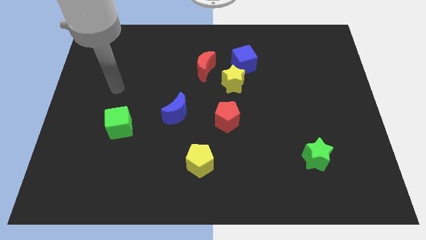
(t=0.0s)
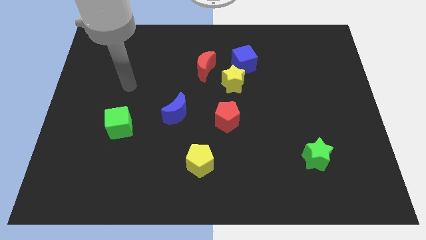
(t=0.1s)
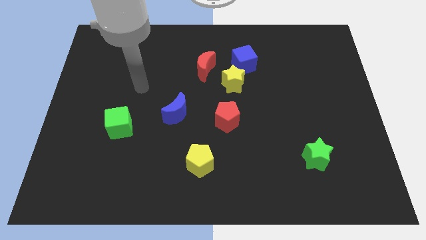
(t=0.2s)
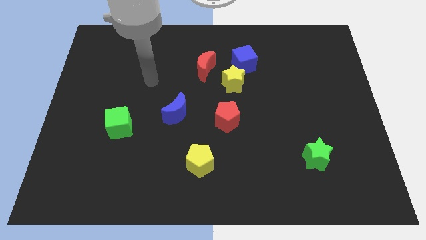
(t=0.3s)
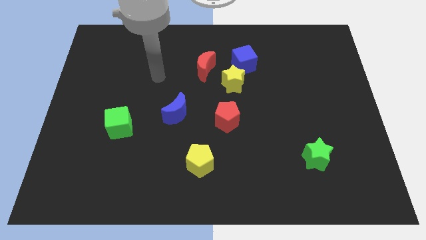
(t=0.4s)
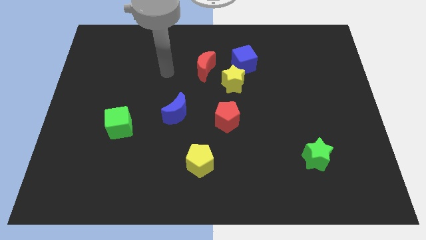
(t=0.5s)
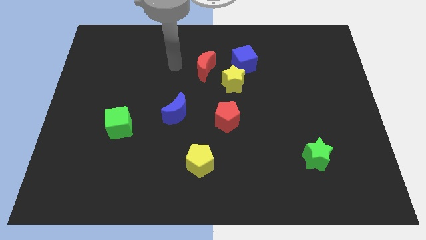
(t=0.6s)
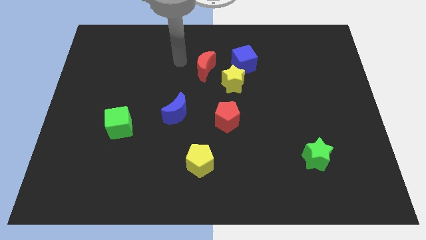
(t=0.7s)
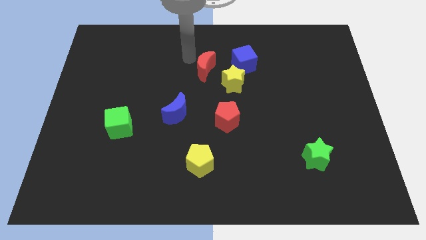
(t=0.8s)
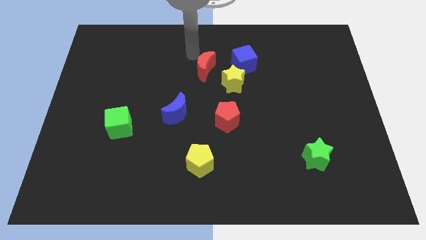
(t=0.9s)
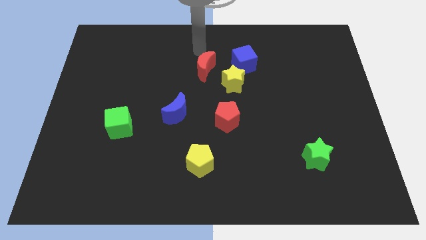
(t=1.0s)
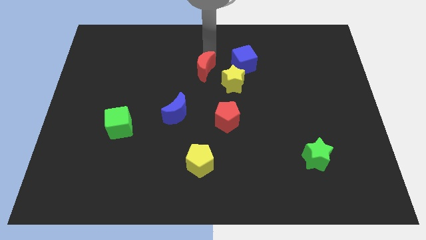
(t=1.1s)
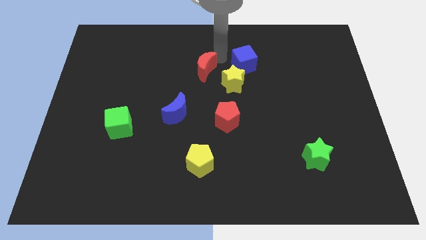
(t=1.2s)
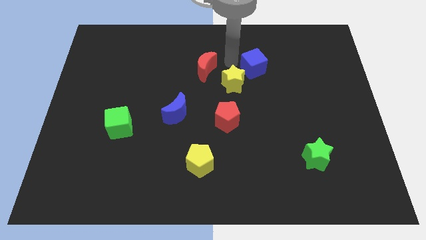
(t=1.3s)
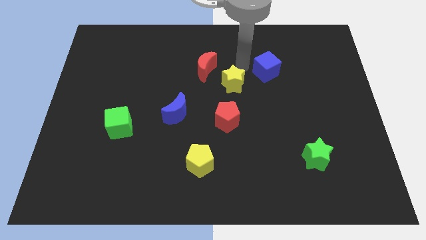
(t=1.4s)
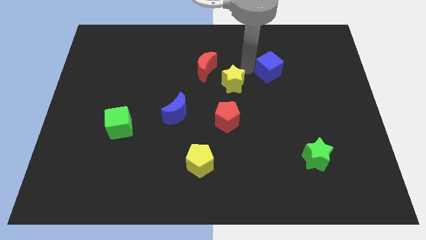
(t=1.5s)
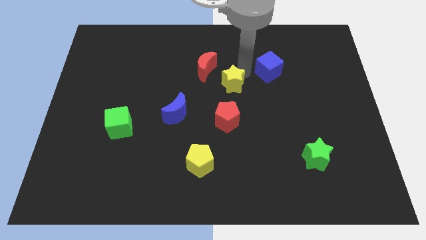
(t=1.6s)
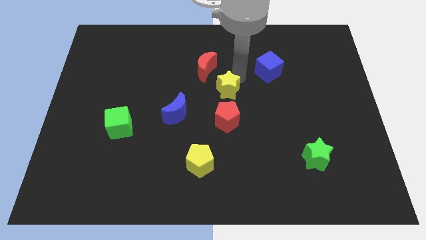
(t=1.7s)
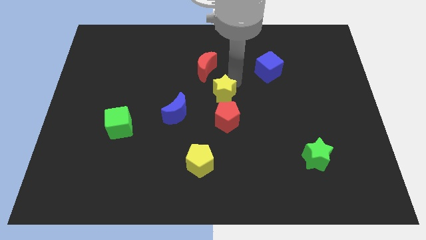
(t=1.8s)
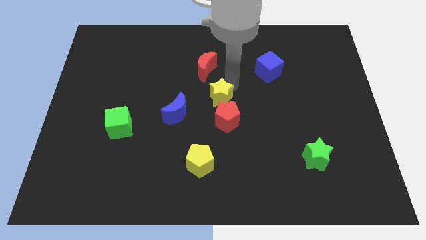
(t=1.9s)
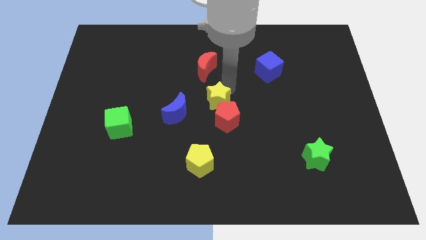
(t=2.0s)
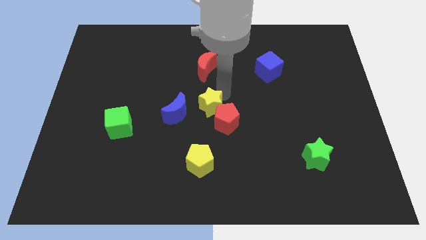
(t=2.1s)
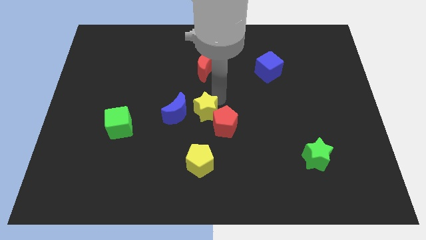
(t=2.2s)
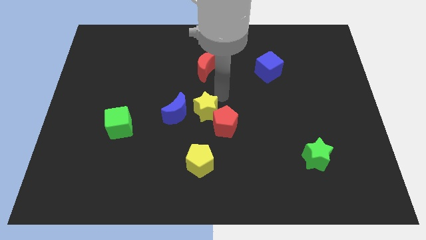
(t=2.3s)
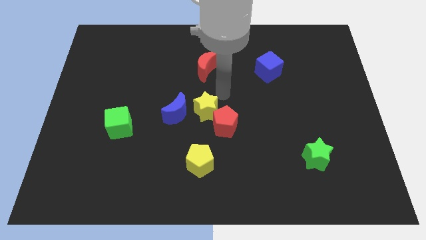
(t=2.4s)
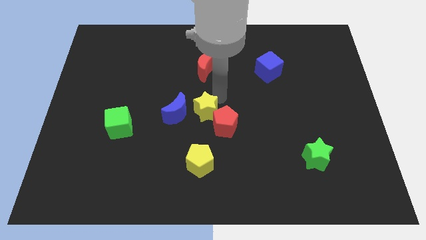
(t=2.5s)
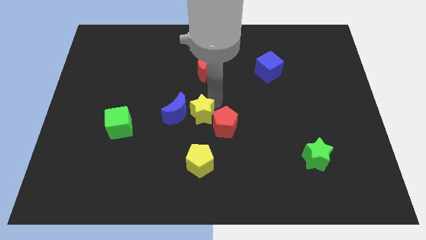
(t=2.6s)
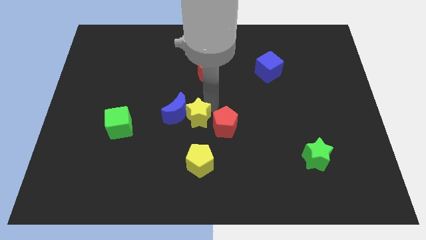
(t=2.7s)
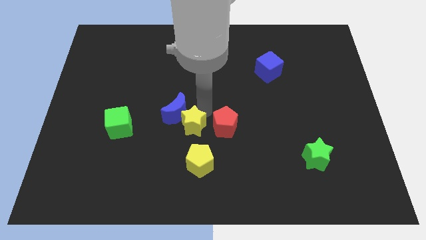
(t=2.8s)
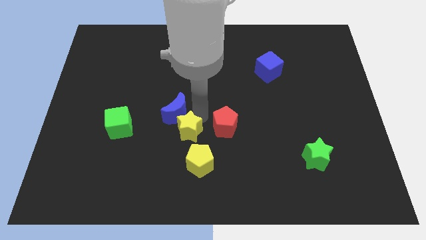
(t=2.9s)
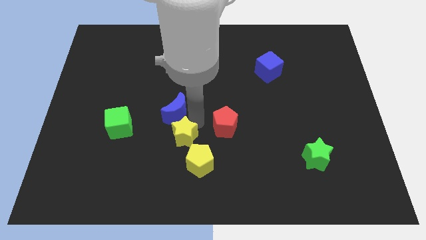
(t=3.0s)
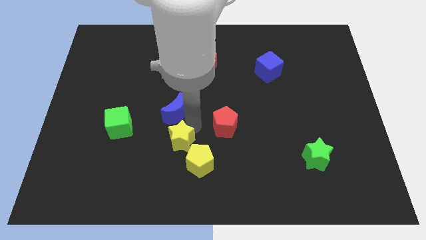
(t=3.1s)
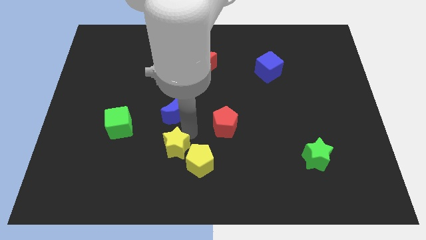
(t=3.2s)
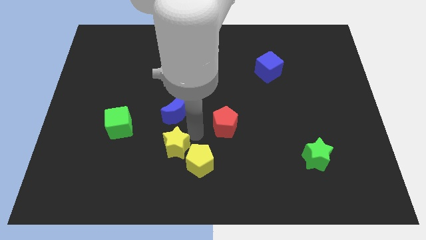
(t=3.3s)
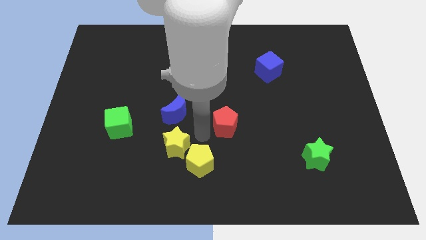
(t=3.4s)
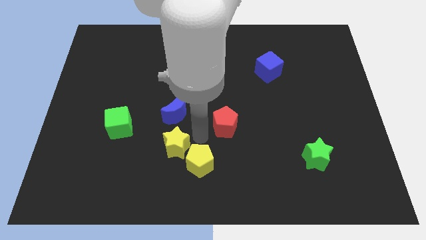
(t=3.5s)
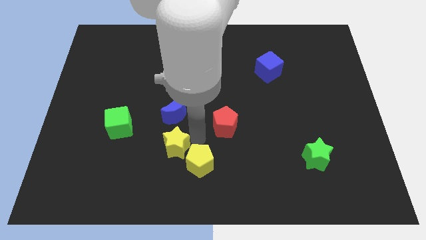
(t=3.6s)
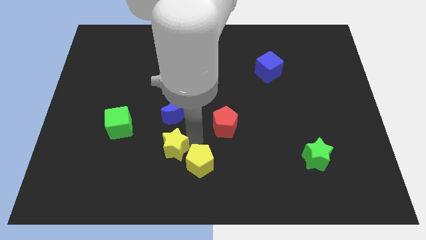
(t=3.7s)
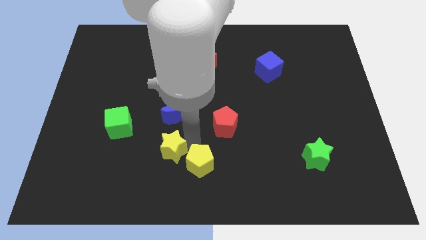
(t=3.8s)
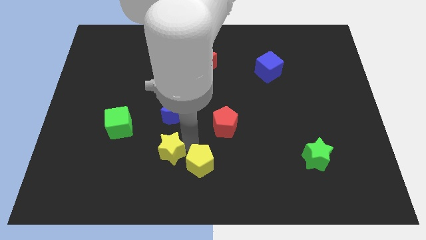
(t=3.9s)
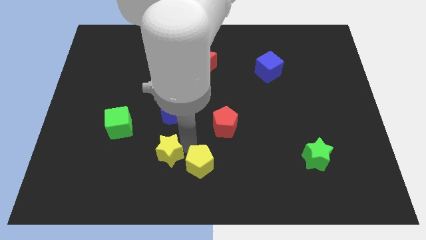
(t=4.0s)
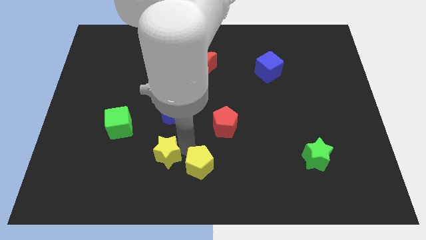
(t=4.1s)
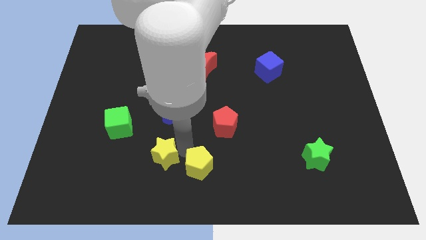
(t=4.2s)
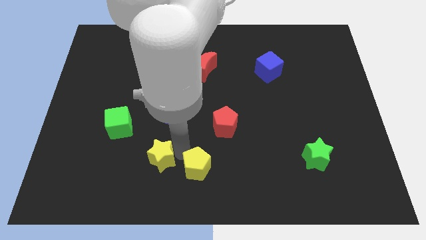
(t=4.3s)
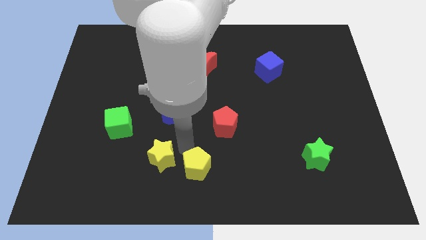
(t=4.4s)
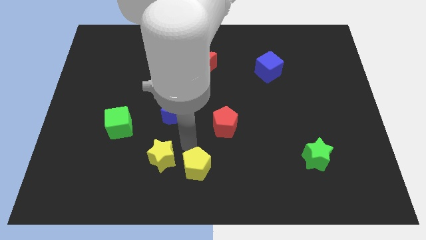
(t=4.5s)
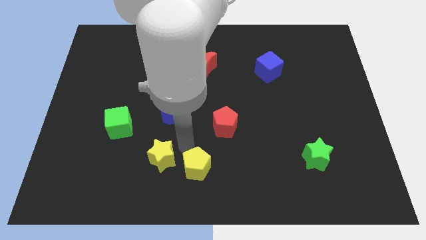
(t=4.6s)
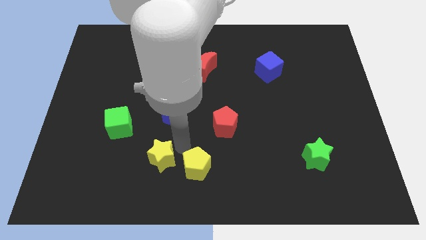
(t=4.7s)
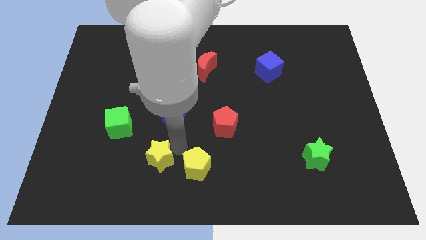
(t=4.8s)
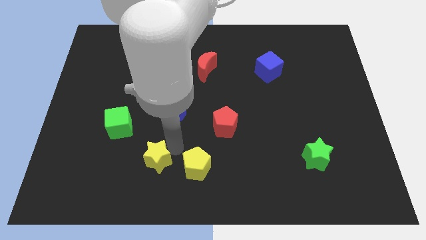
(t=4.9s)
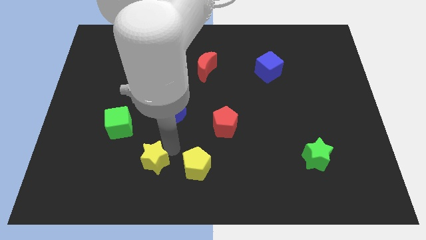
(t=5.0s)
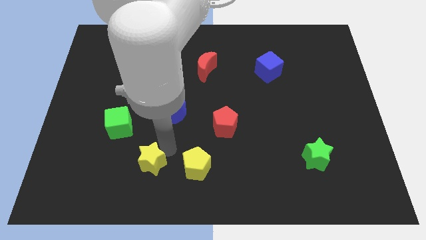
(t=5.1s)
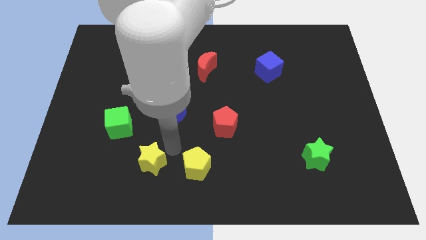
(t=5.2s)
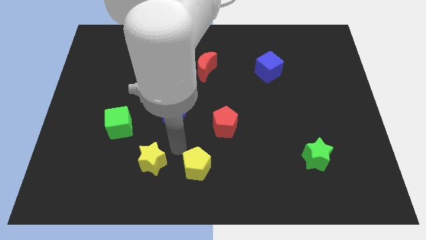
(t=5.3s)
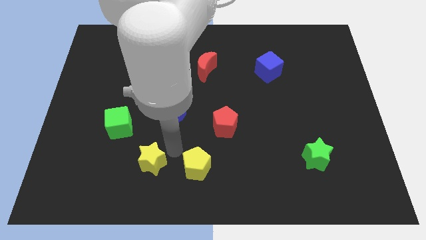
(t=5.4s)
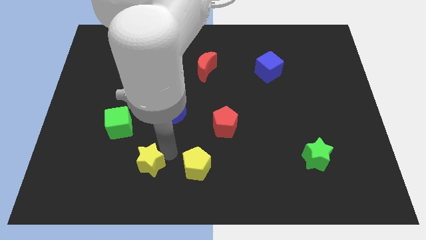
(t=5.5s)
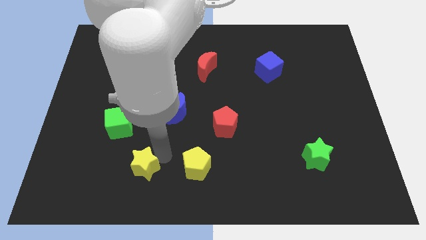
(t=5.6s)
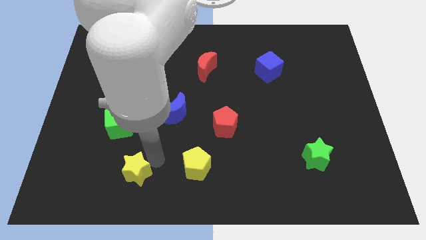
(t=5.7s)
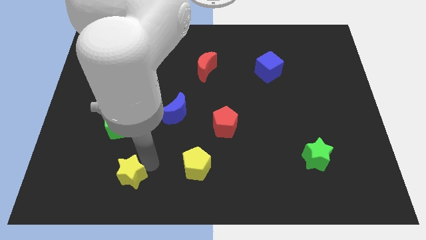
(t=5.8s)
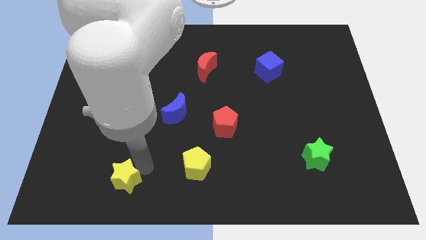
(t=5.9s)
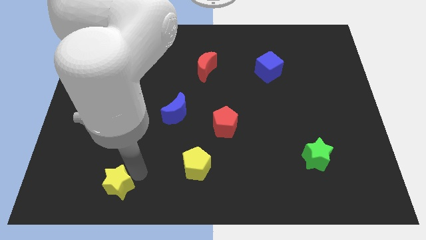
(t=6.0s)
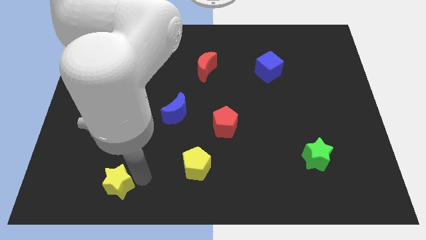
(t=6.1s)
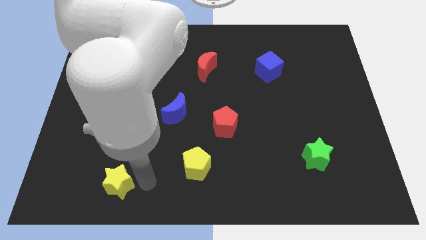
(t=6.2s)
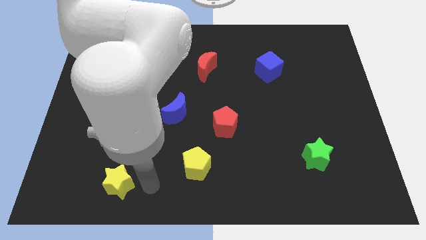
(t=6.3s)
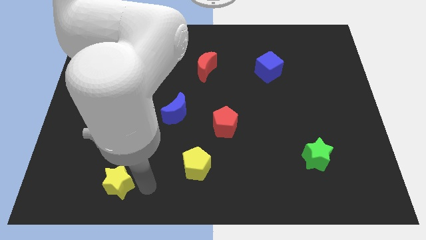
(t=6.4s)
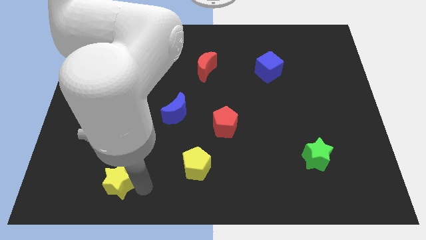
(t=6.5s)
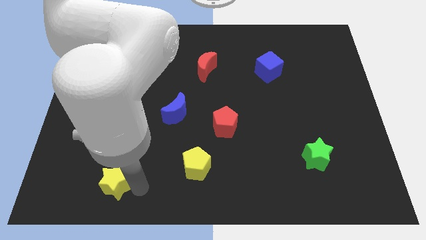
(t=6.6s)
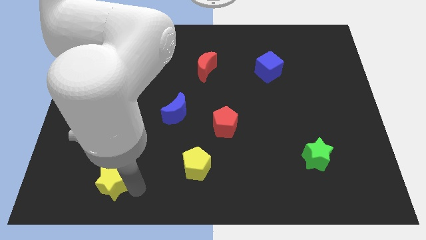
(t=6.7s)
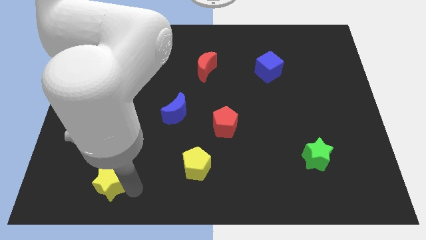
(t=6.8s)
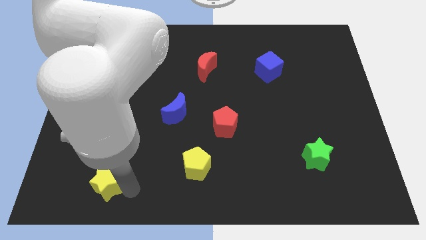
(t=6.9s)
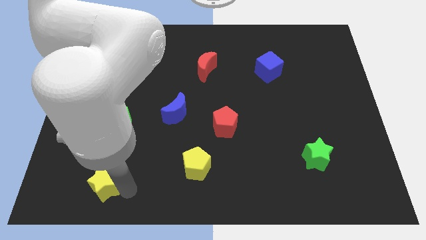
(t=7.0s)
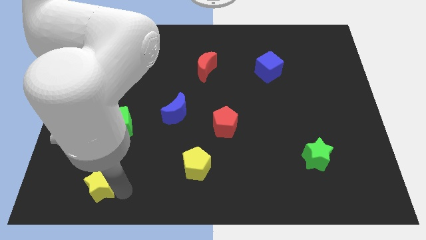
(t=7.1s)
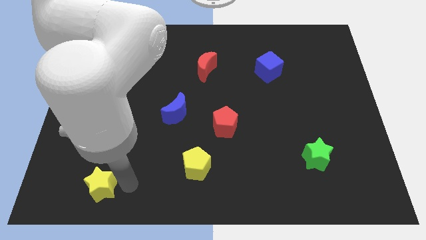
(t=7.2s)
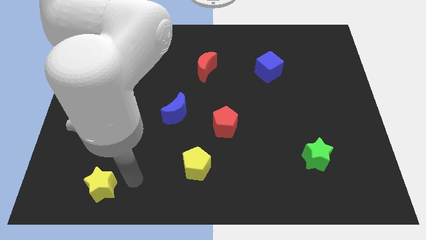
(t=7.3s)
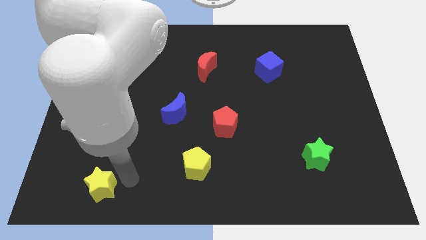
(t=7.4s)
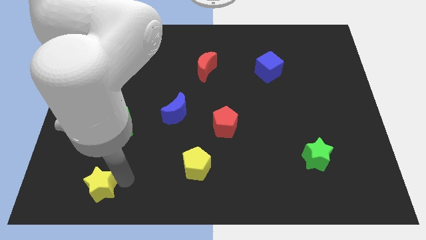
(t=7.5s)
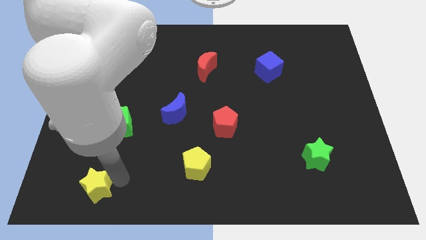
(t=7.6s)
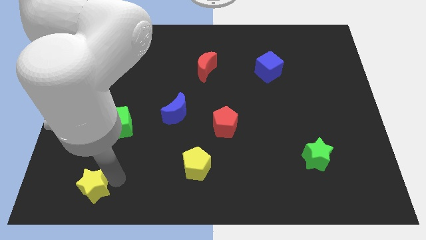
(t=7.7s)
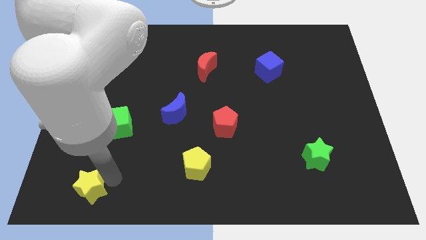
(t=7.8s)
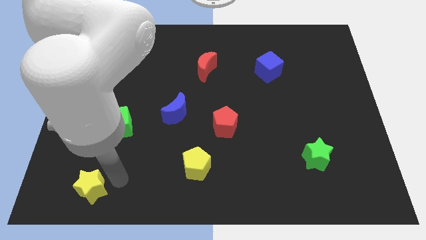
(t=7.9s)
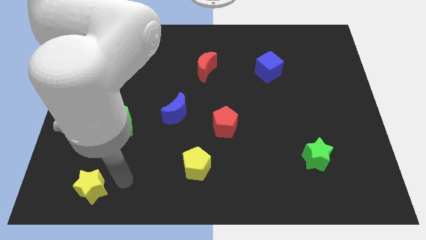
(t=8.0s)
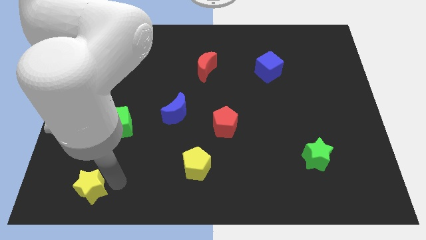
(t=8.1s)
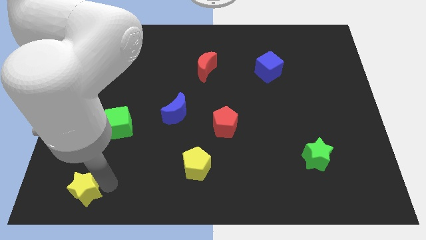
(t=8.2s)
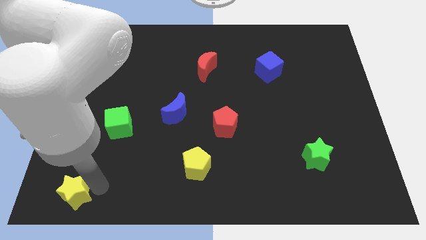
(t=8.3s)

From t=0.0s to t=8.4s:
push the yellow star to the bottom left corner
